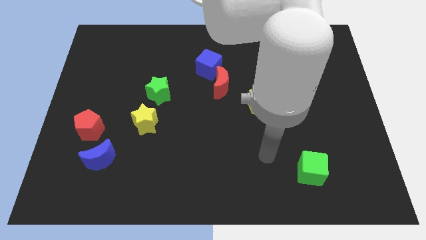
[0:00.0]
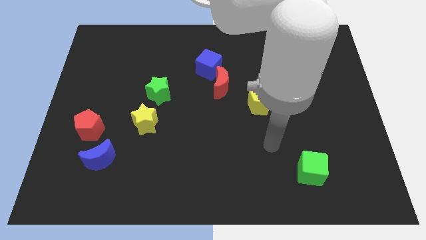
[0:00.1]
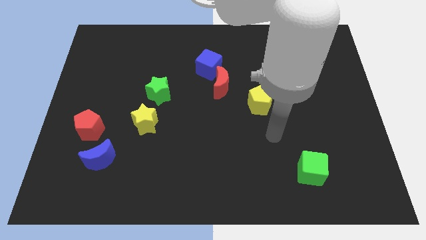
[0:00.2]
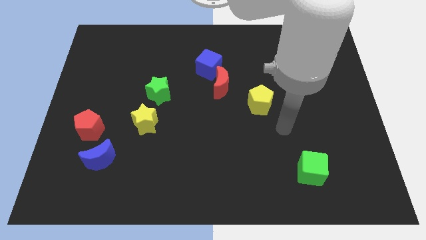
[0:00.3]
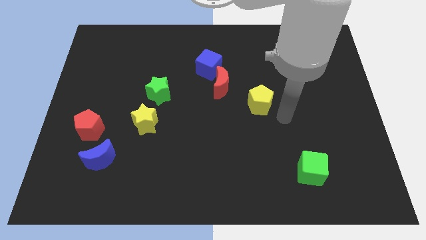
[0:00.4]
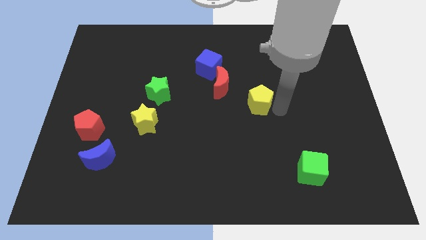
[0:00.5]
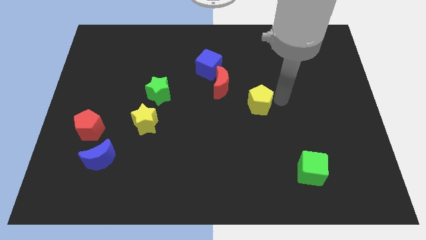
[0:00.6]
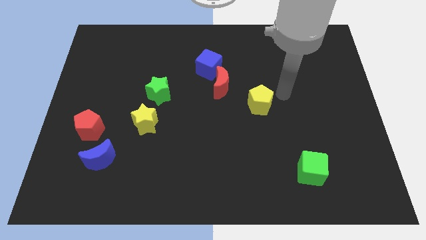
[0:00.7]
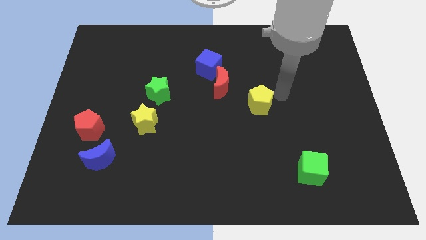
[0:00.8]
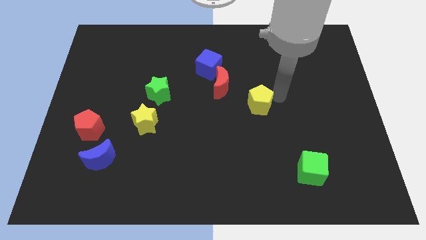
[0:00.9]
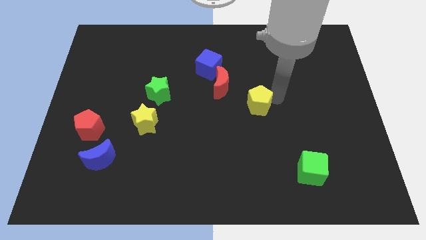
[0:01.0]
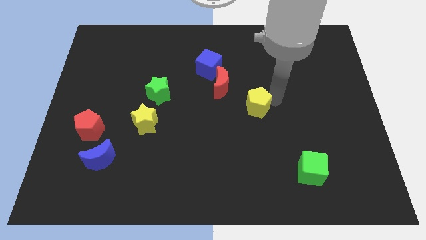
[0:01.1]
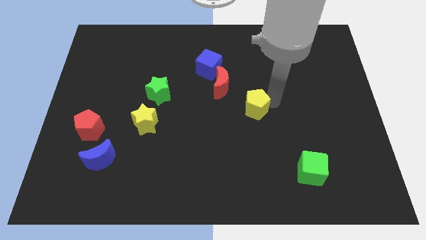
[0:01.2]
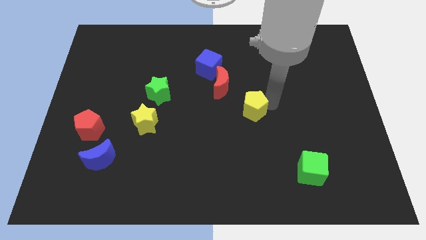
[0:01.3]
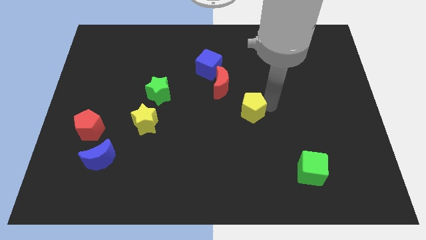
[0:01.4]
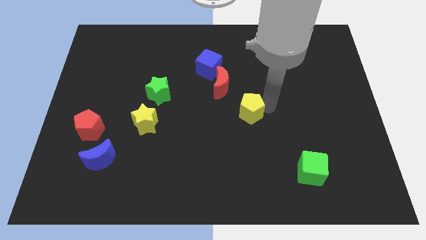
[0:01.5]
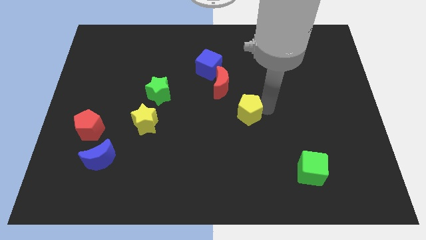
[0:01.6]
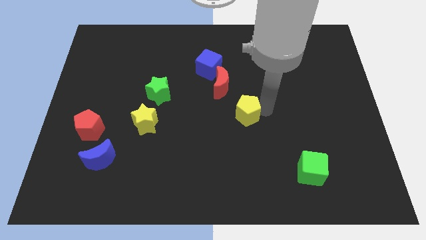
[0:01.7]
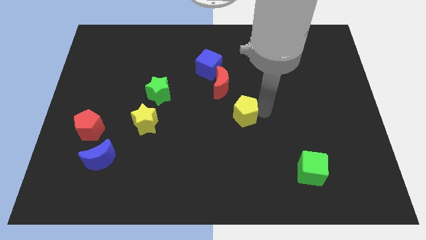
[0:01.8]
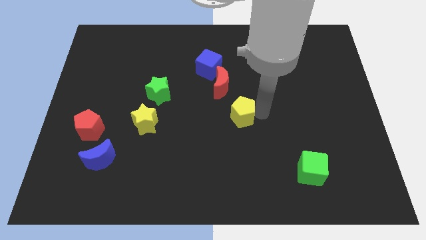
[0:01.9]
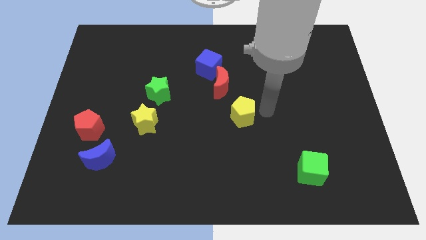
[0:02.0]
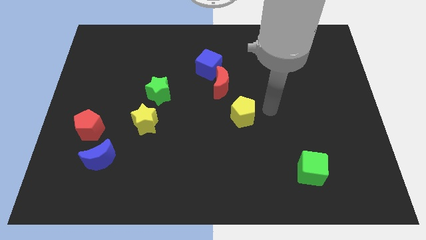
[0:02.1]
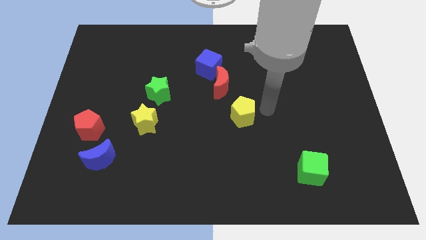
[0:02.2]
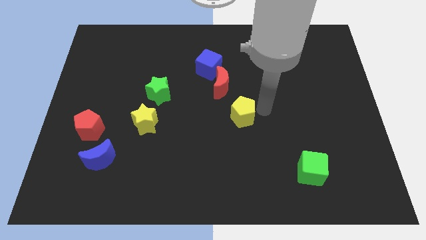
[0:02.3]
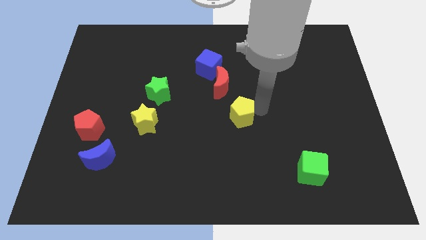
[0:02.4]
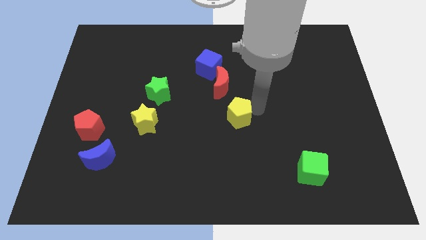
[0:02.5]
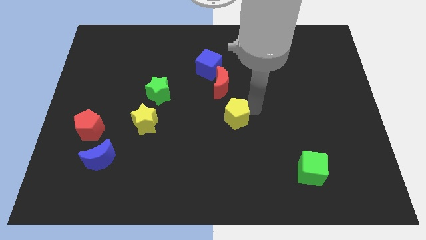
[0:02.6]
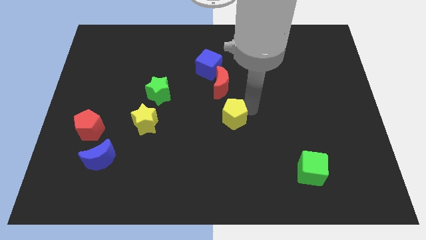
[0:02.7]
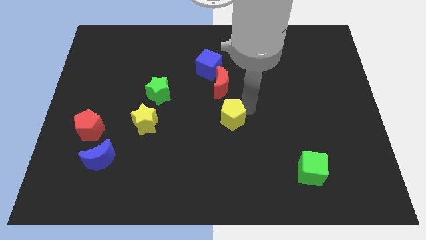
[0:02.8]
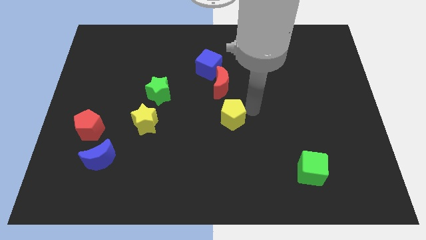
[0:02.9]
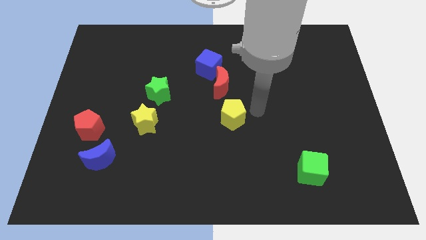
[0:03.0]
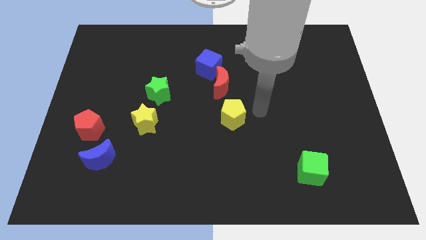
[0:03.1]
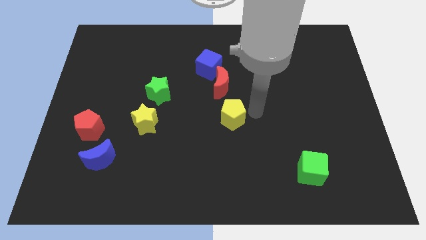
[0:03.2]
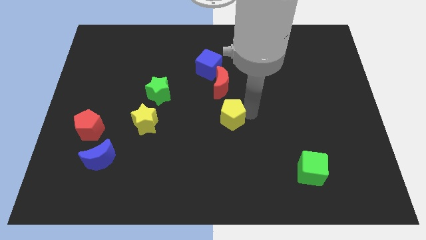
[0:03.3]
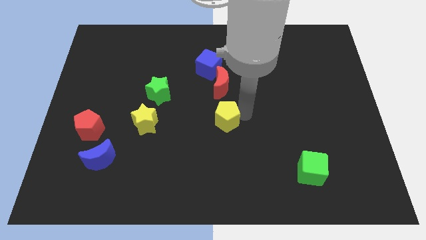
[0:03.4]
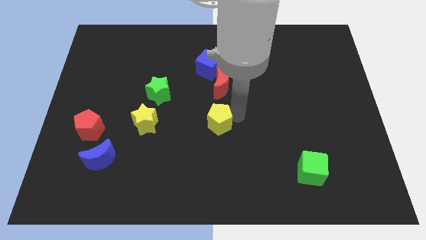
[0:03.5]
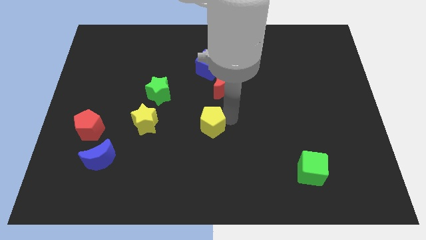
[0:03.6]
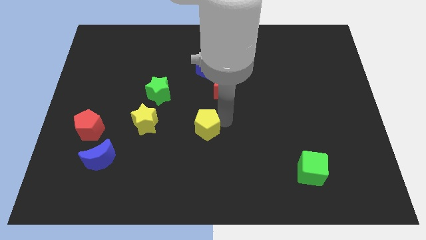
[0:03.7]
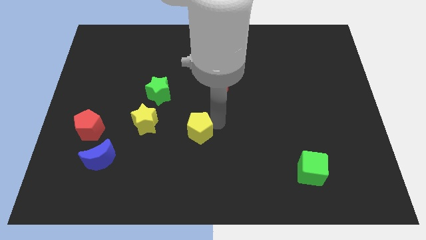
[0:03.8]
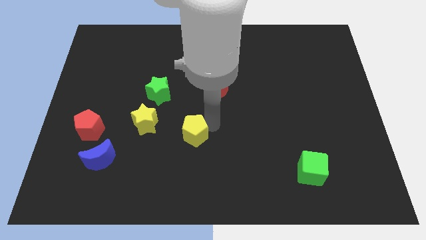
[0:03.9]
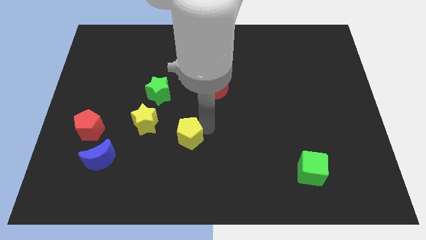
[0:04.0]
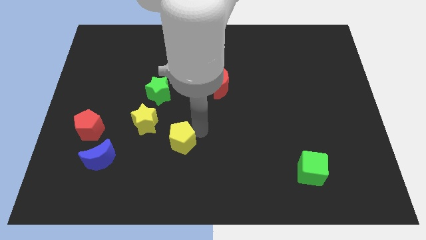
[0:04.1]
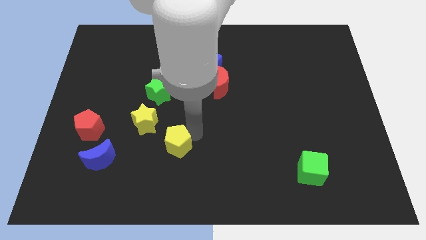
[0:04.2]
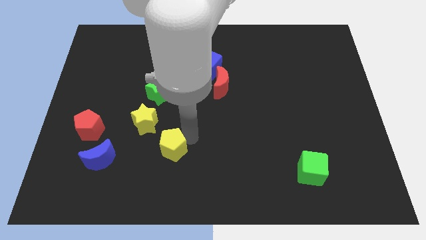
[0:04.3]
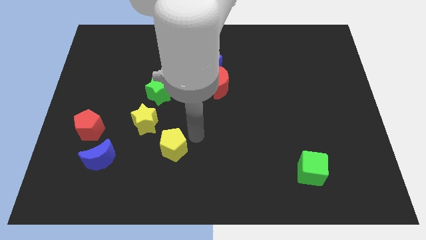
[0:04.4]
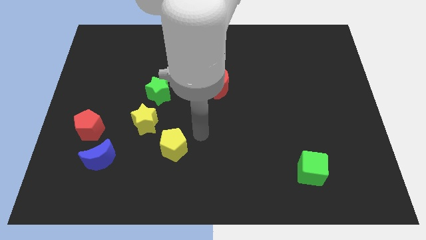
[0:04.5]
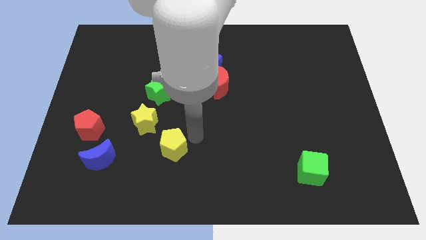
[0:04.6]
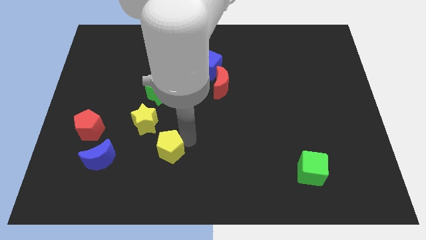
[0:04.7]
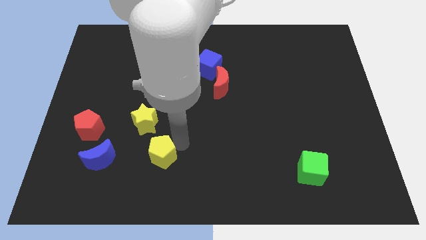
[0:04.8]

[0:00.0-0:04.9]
slide the yellow pentagon below the yellow star

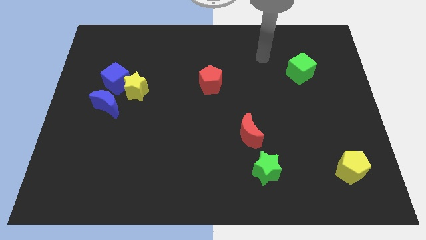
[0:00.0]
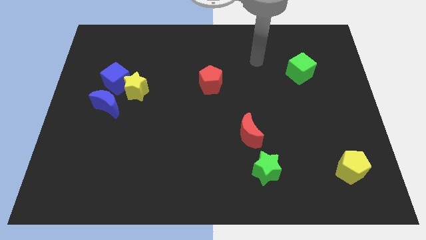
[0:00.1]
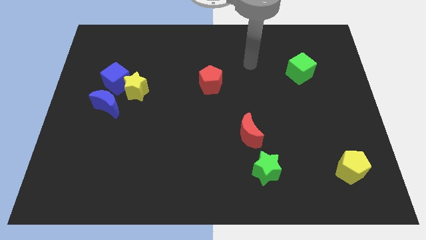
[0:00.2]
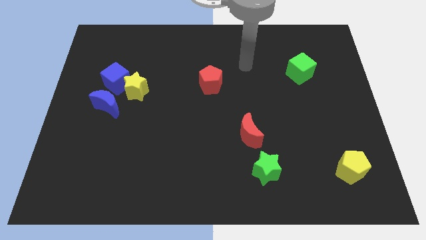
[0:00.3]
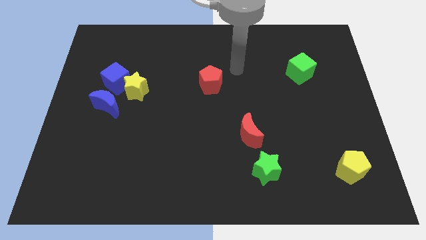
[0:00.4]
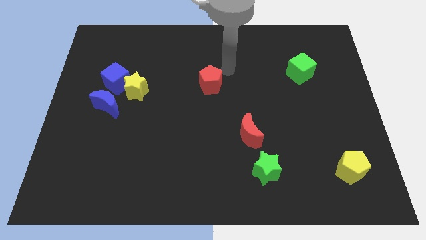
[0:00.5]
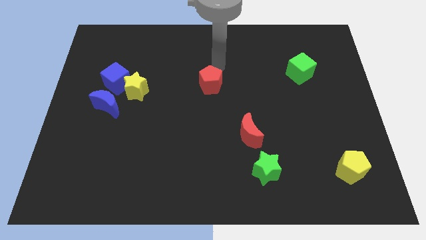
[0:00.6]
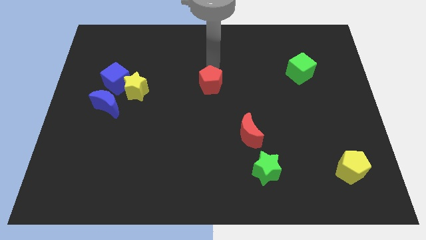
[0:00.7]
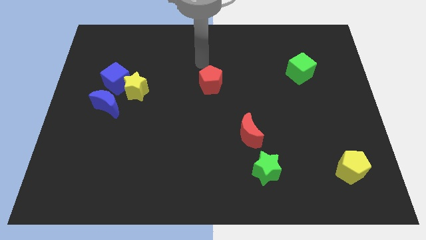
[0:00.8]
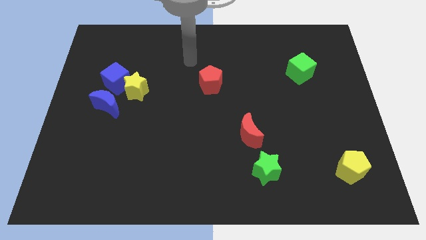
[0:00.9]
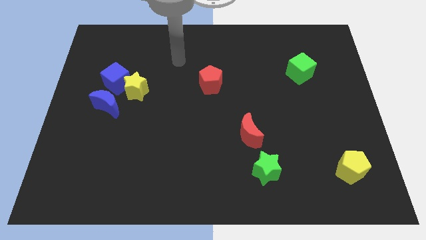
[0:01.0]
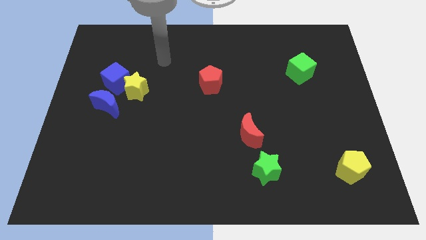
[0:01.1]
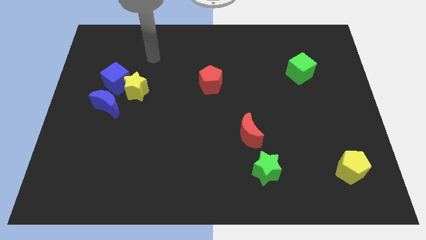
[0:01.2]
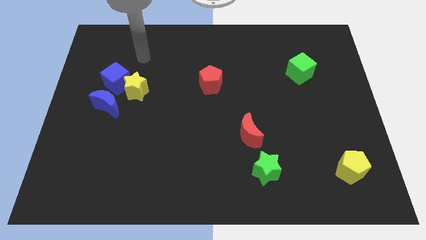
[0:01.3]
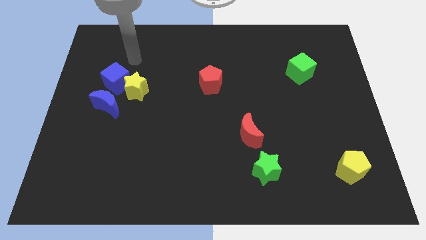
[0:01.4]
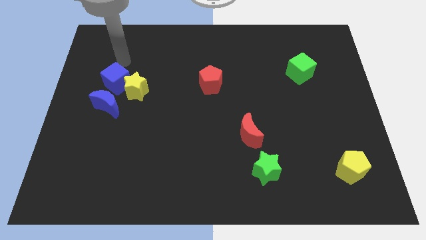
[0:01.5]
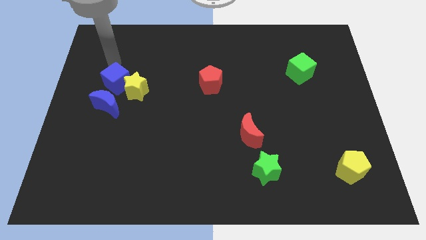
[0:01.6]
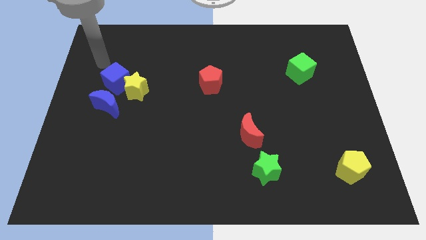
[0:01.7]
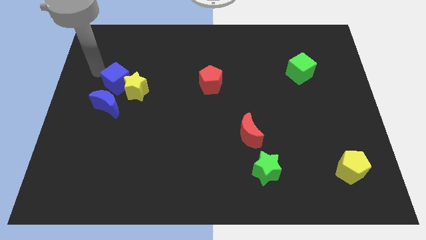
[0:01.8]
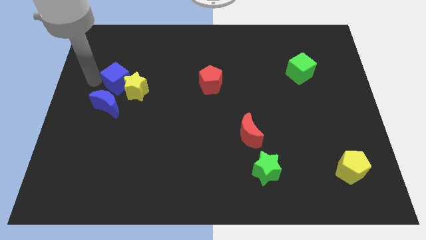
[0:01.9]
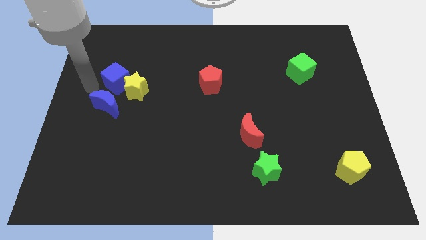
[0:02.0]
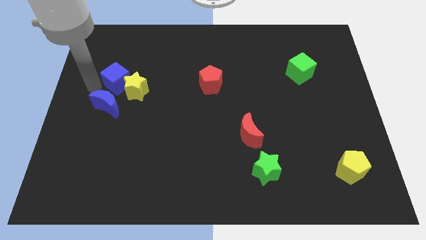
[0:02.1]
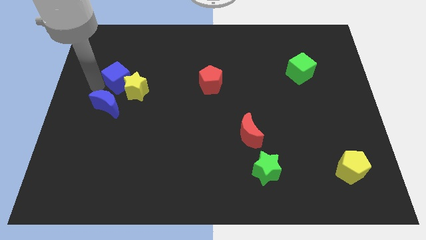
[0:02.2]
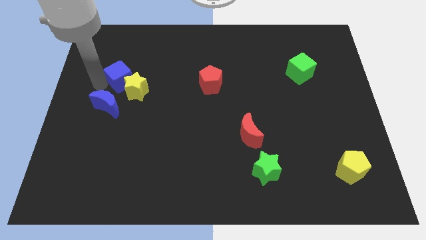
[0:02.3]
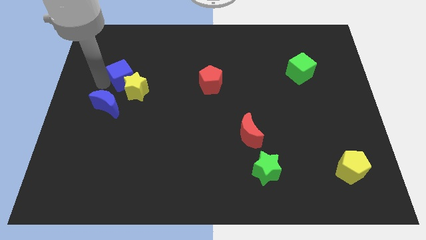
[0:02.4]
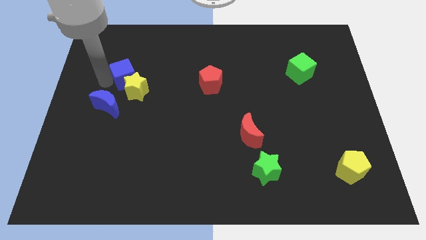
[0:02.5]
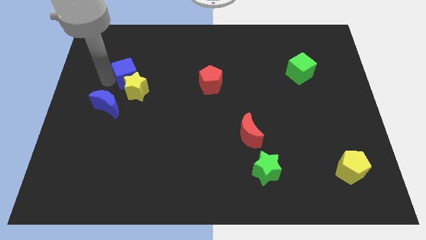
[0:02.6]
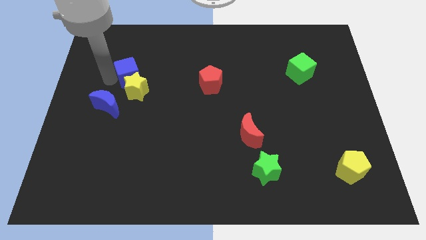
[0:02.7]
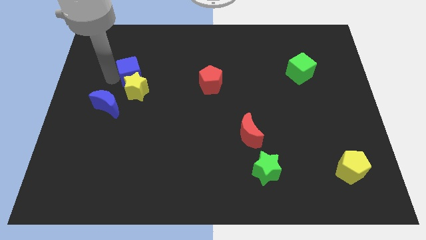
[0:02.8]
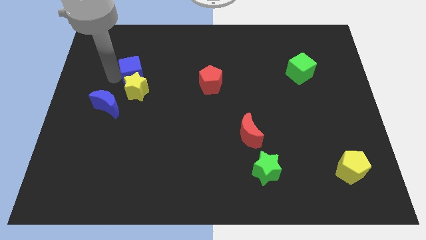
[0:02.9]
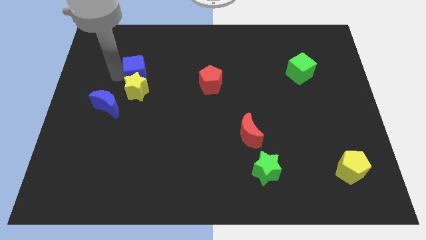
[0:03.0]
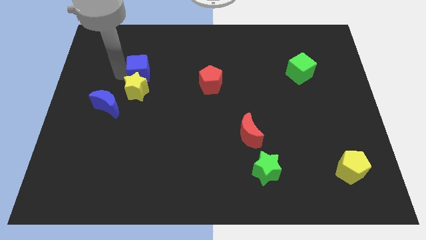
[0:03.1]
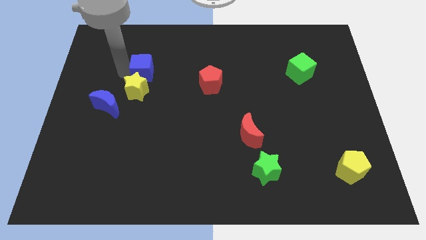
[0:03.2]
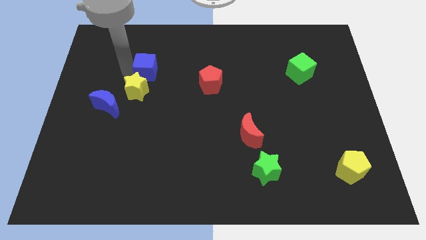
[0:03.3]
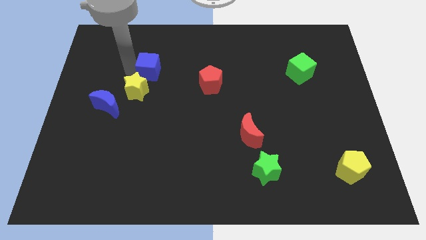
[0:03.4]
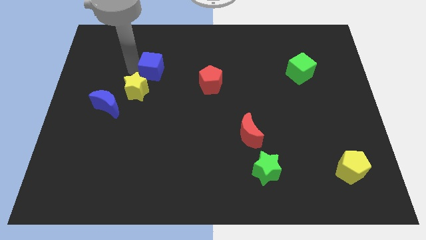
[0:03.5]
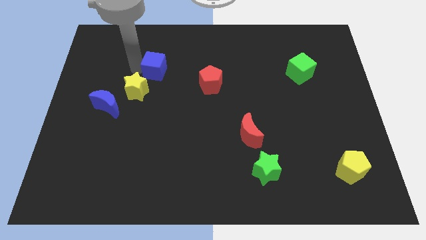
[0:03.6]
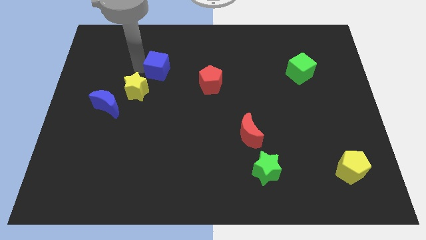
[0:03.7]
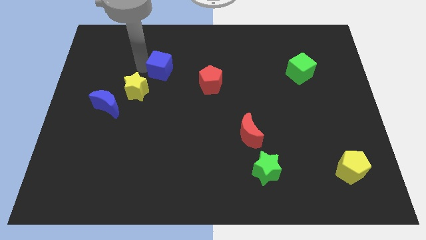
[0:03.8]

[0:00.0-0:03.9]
push the blue cube to the left of the red pentagon
